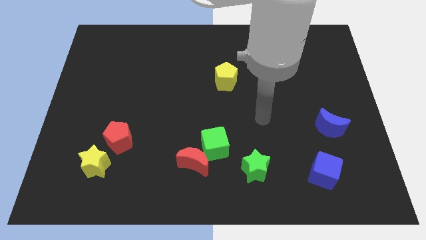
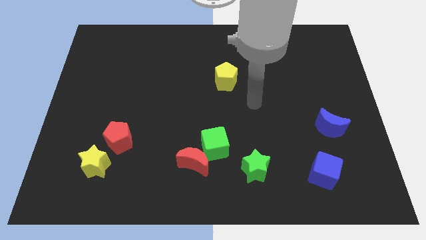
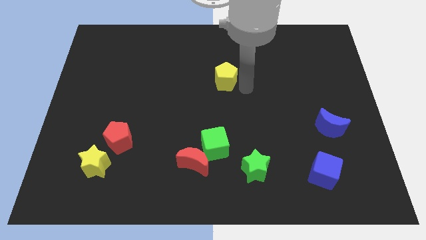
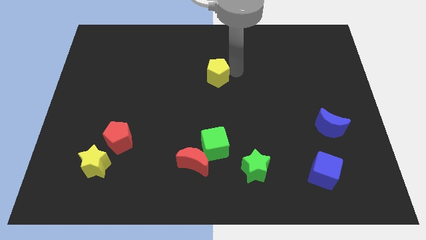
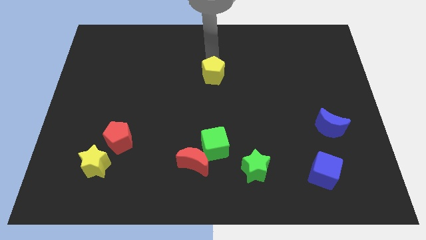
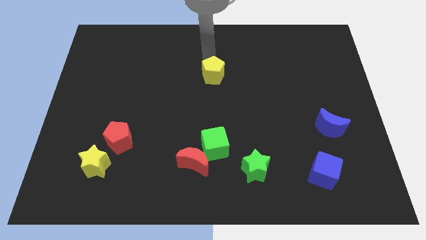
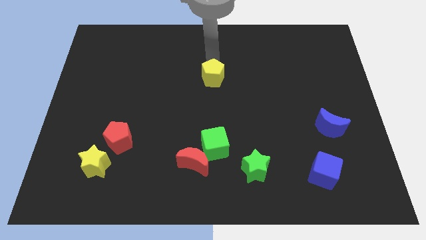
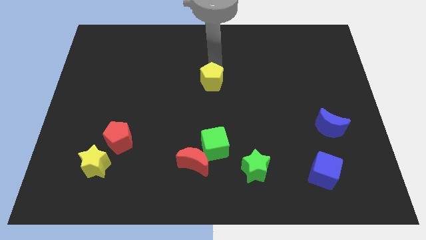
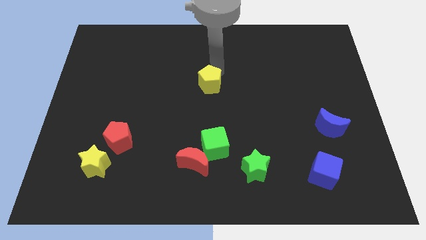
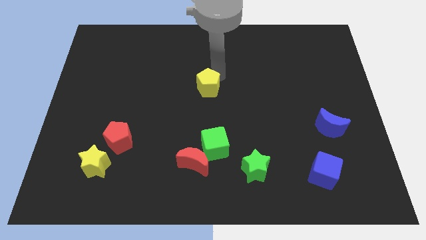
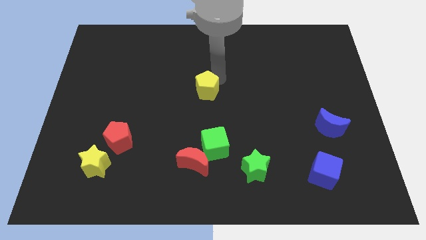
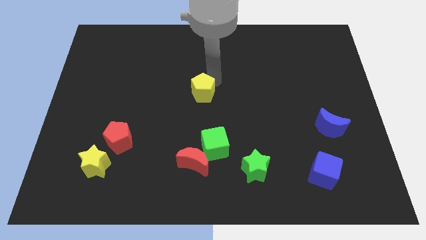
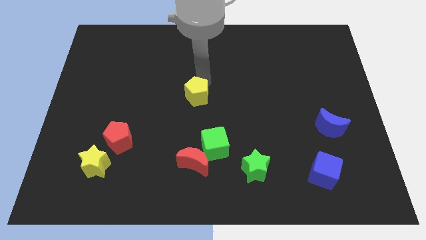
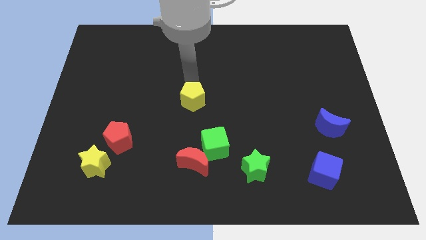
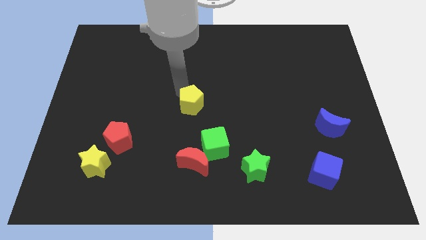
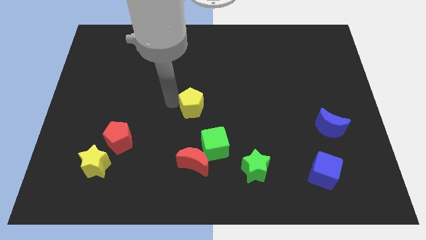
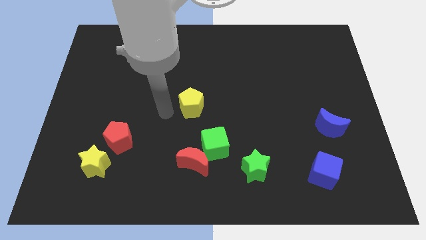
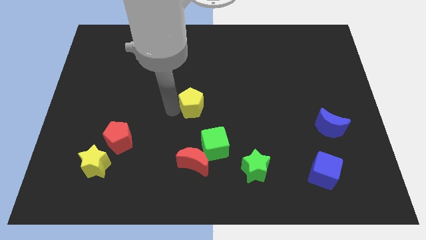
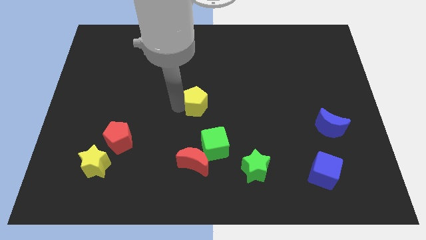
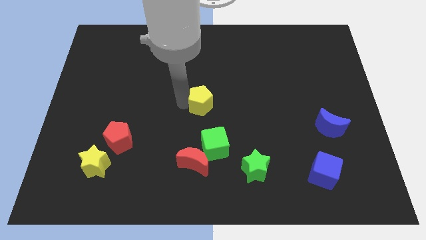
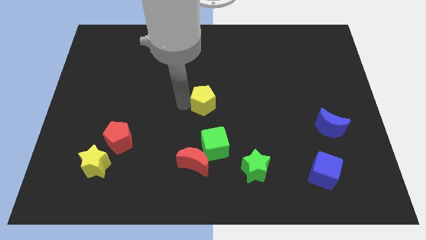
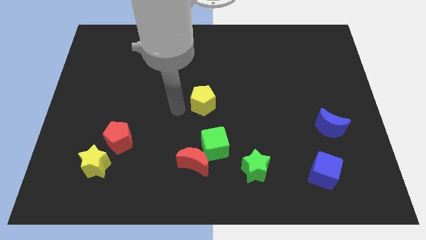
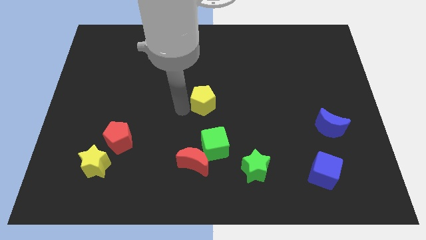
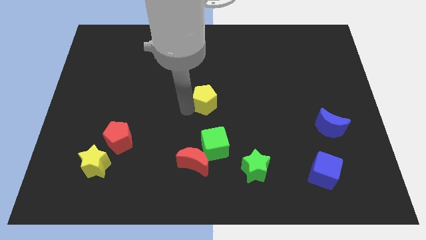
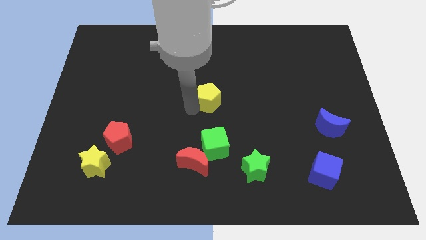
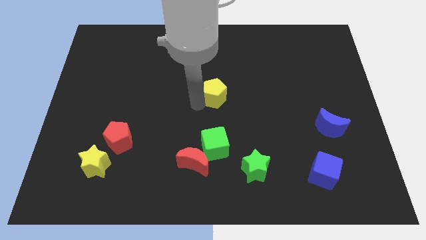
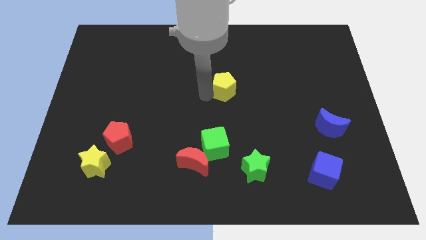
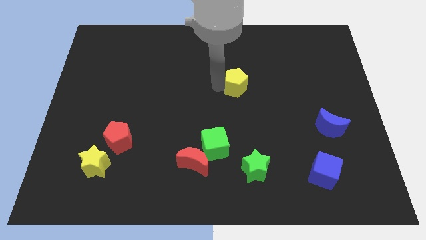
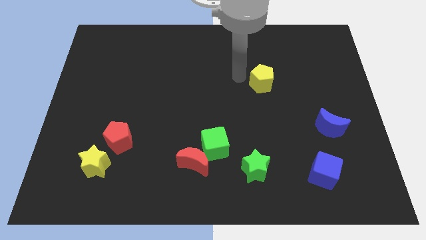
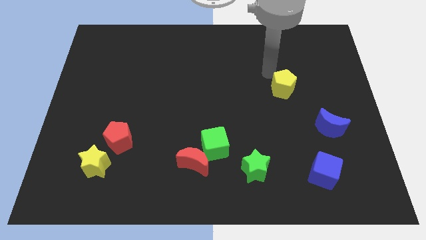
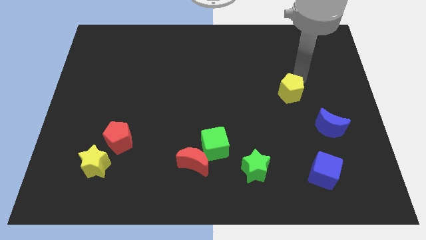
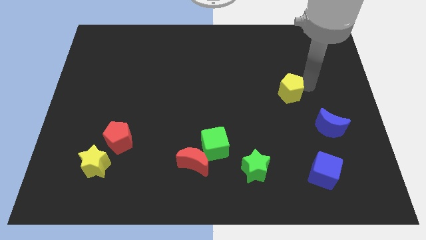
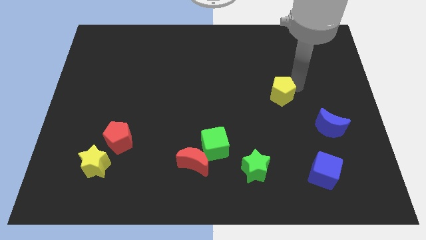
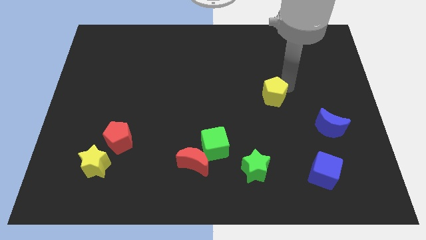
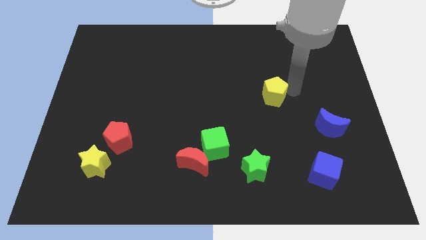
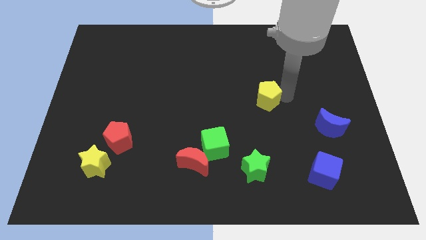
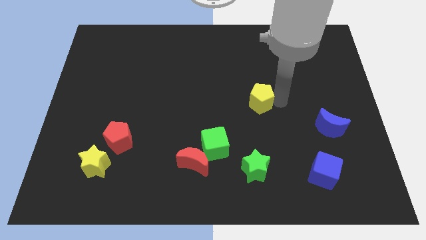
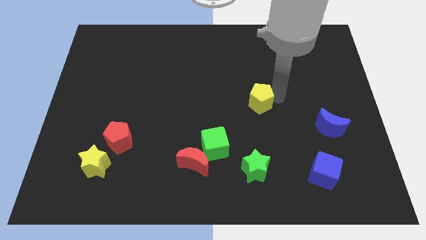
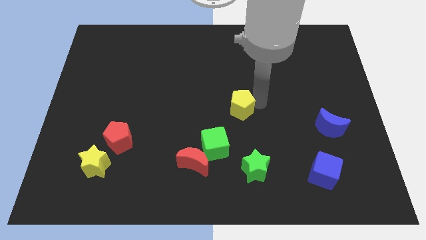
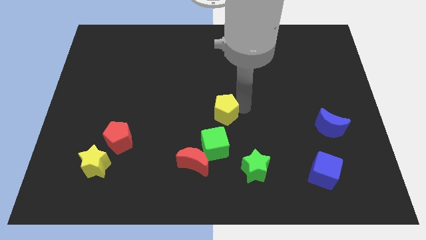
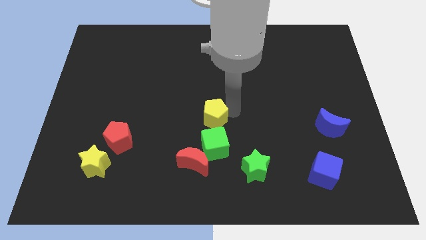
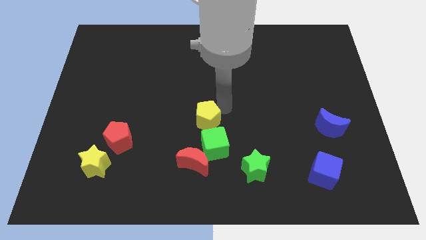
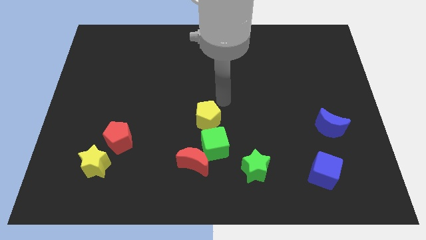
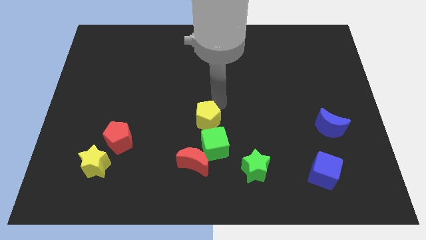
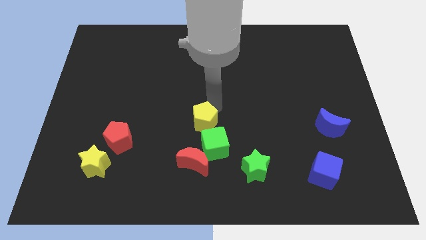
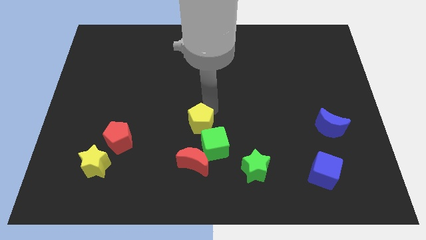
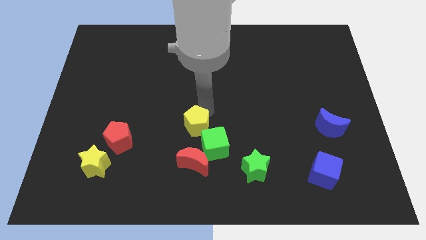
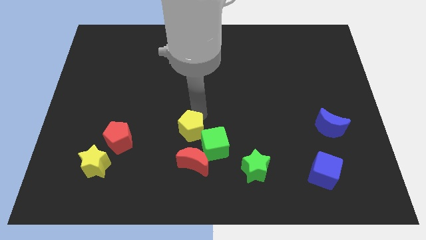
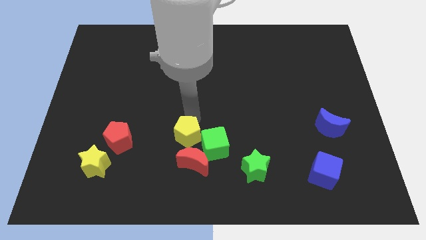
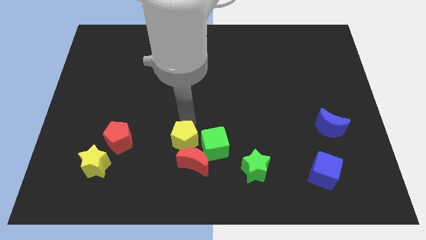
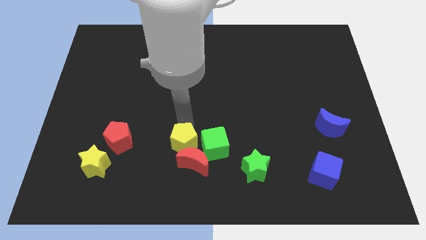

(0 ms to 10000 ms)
push the yellow pentagon close to the red moon

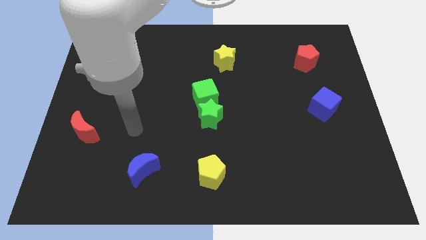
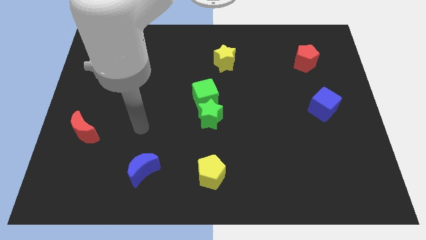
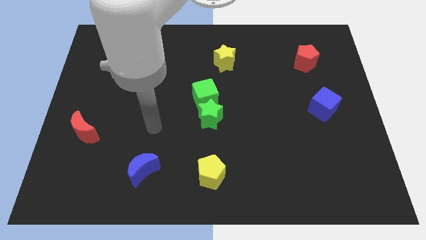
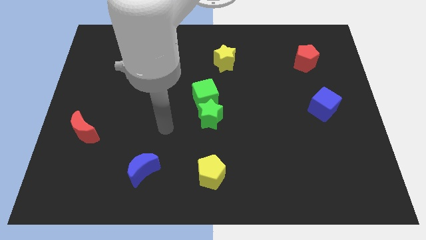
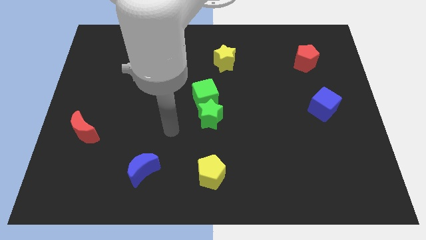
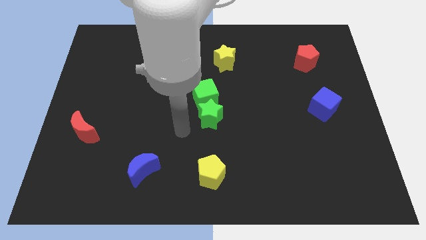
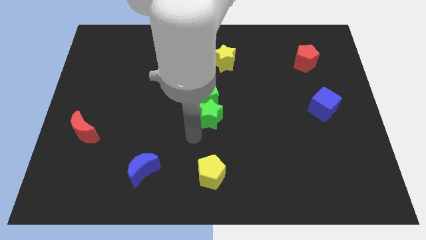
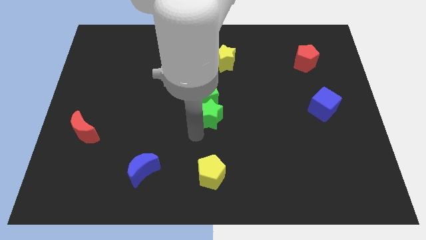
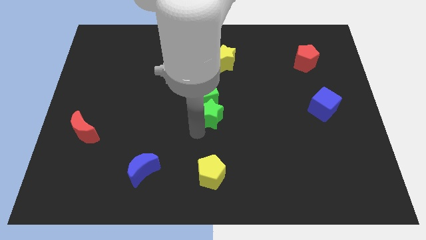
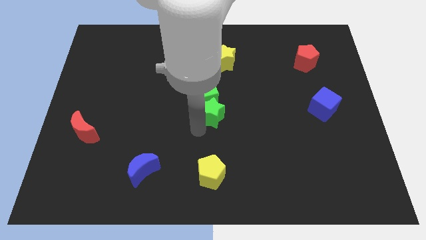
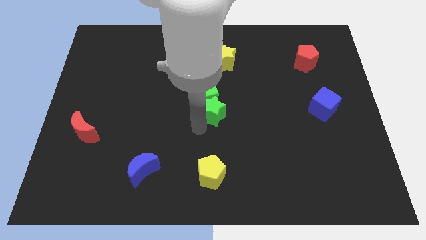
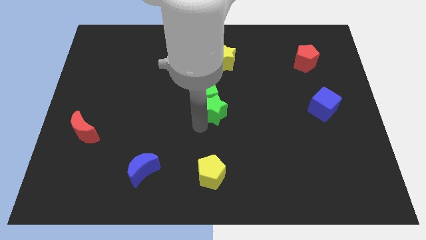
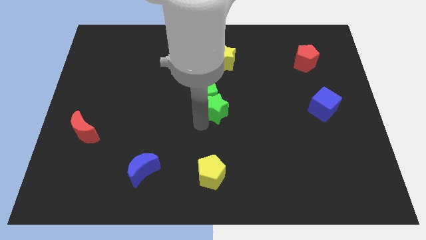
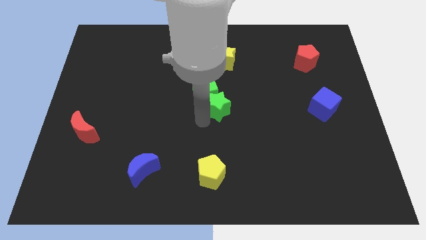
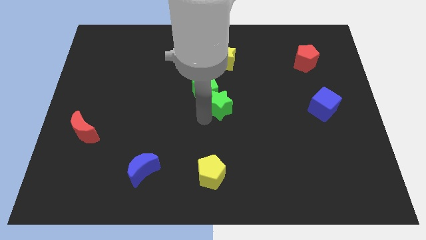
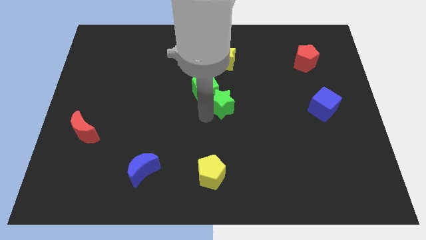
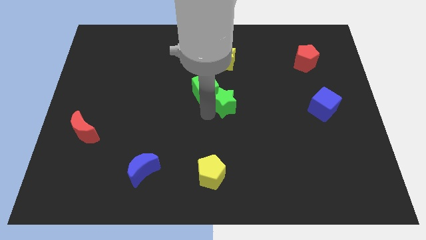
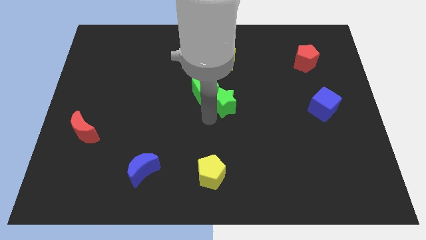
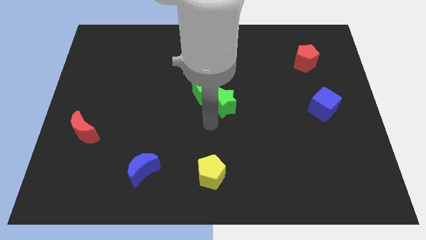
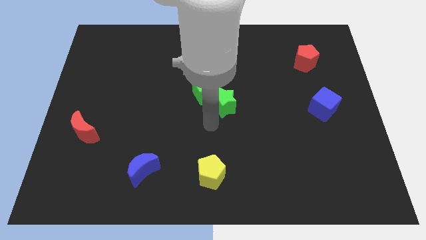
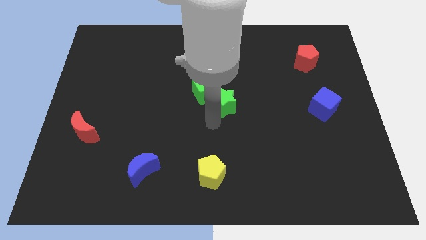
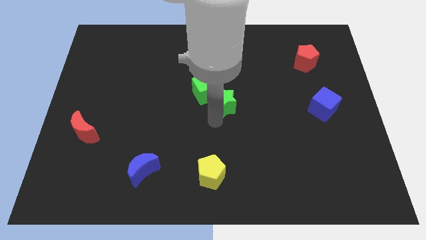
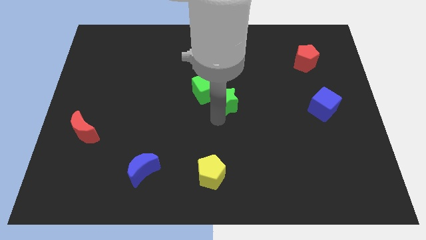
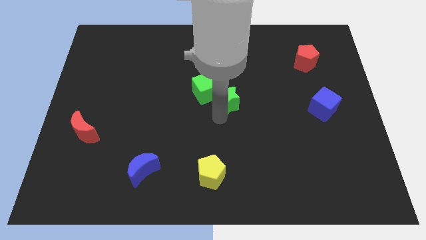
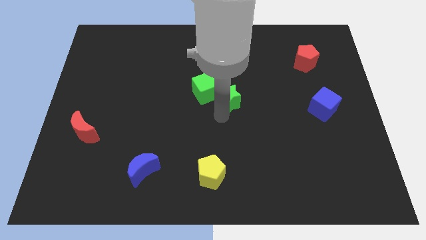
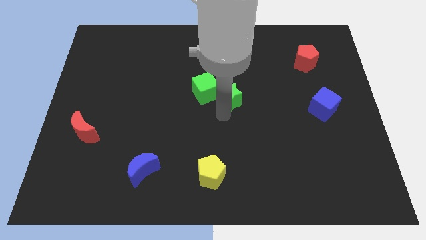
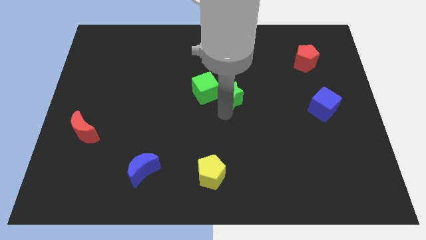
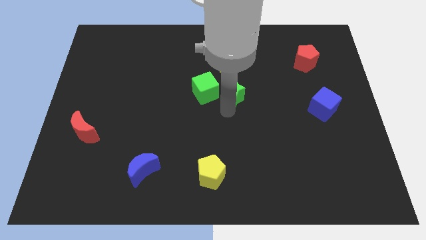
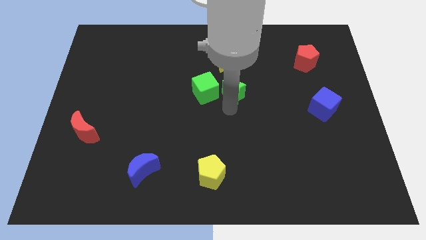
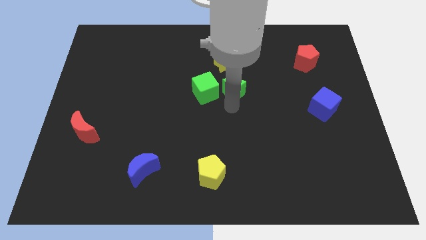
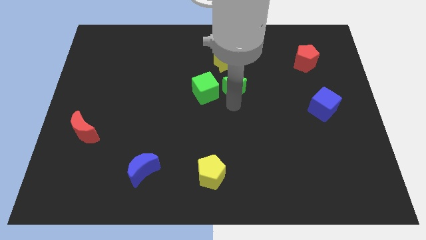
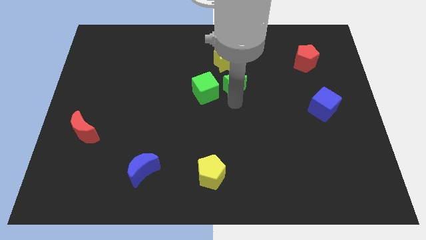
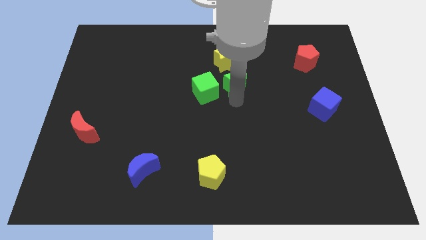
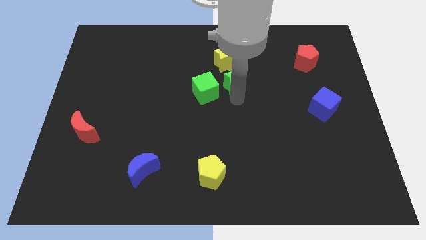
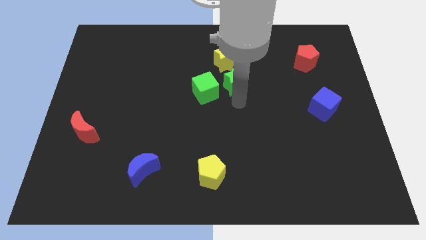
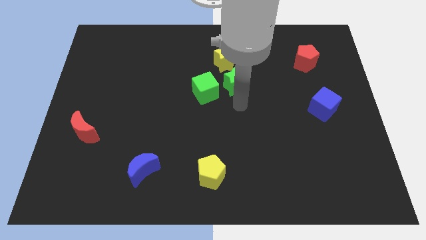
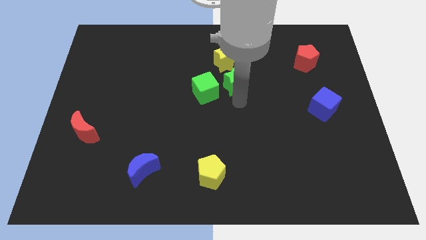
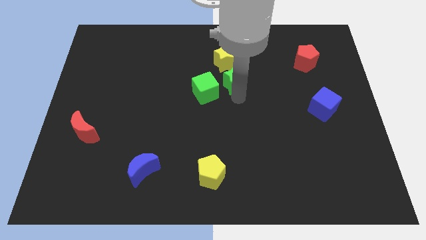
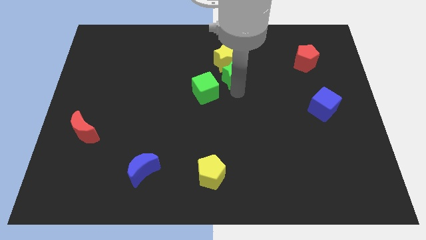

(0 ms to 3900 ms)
move the green star to the yellow star
